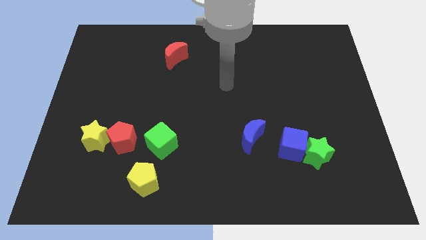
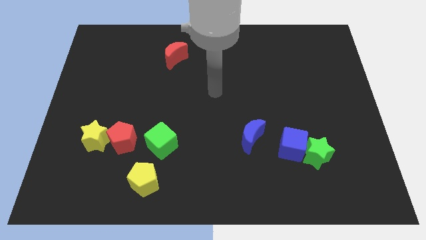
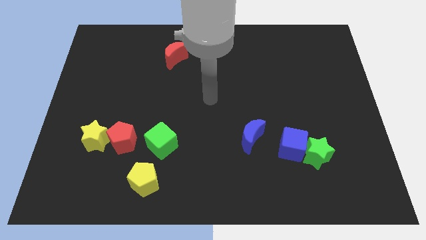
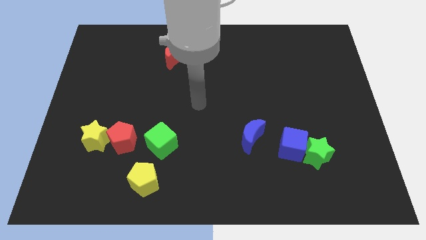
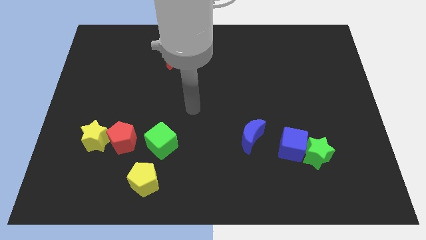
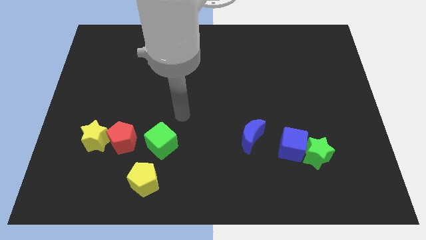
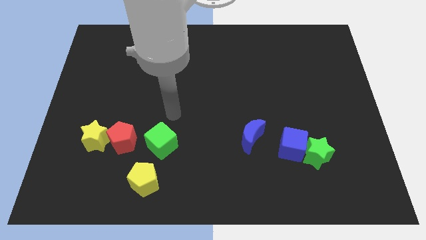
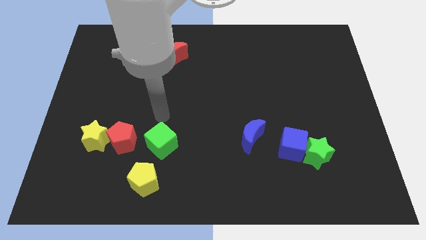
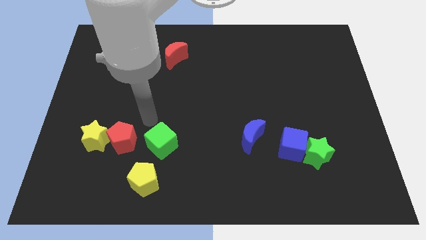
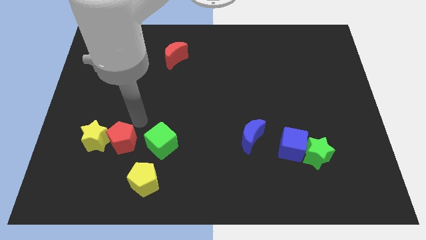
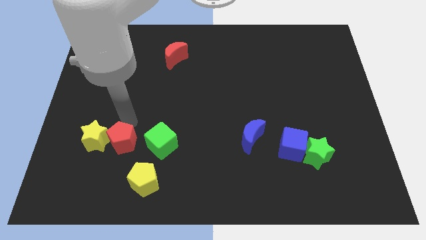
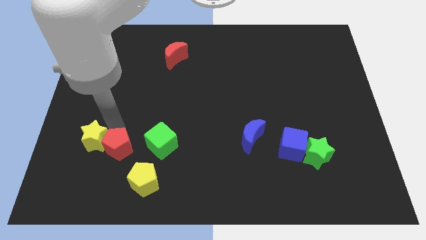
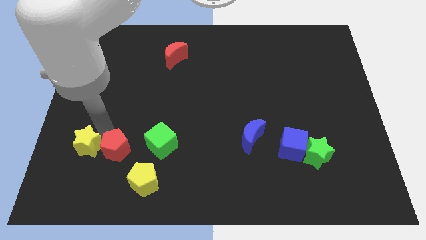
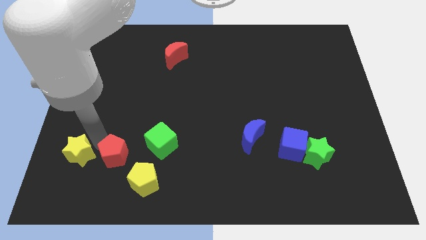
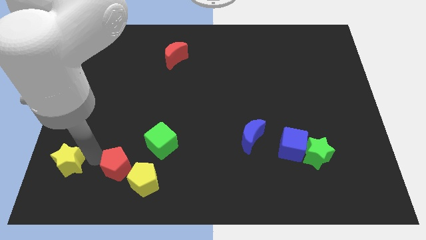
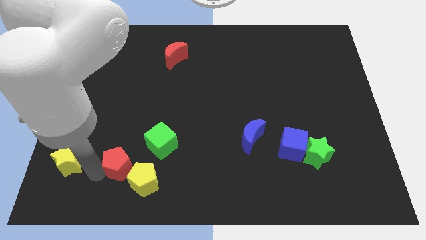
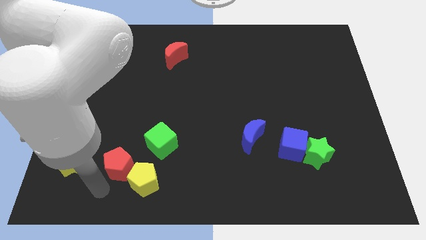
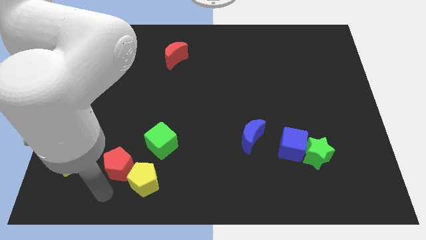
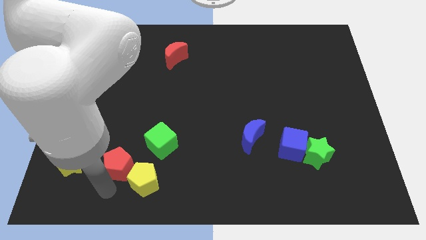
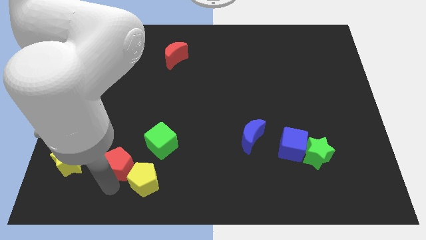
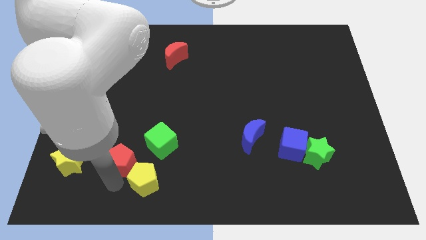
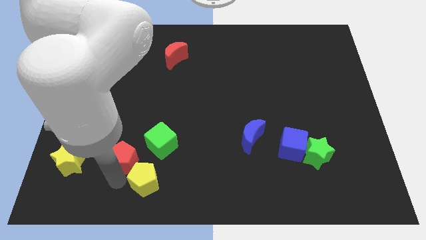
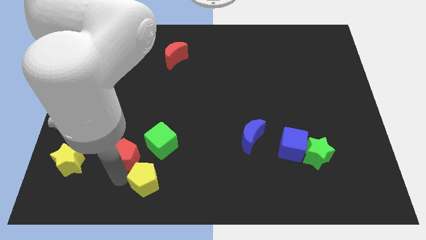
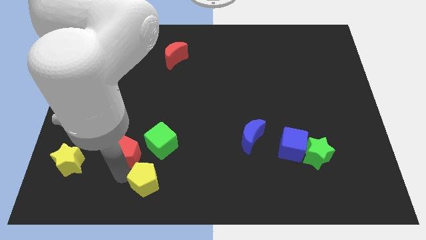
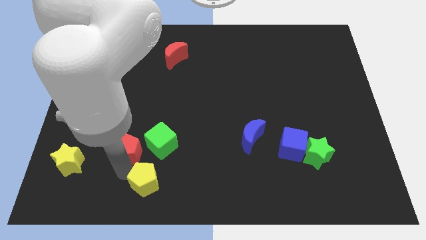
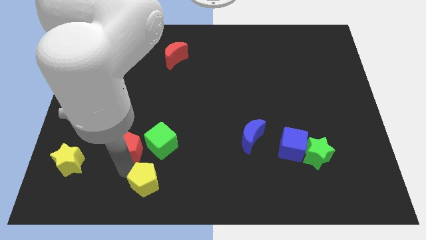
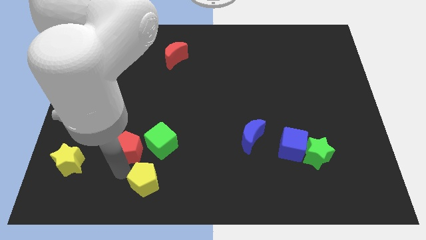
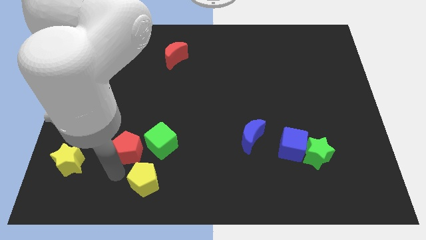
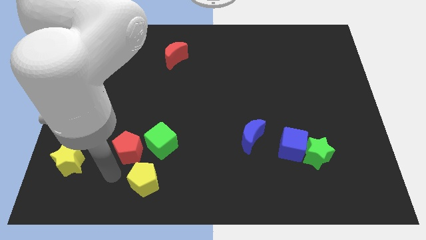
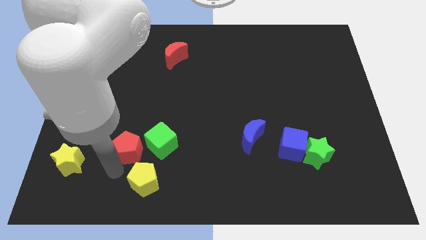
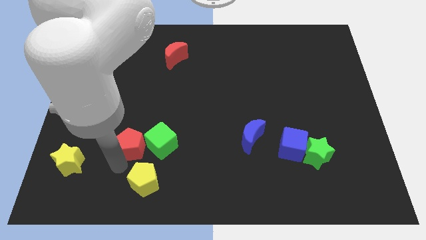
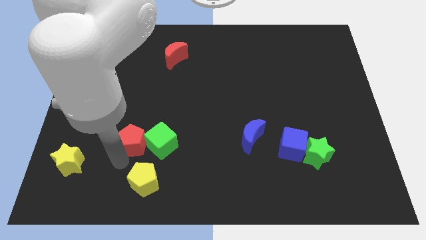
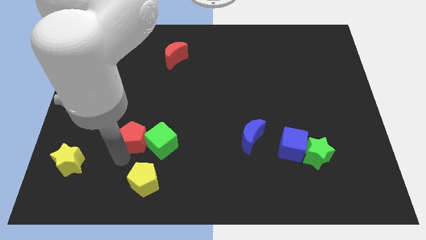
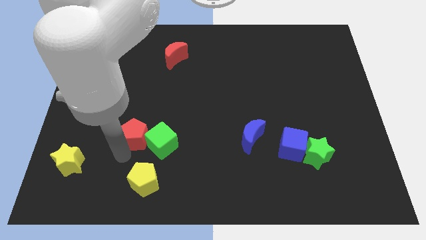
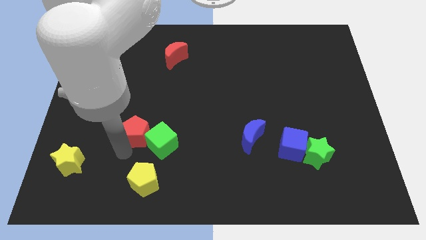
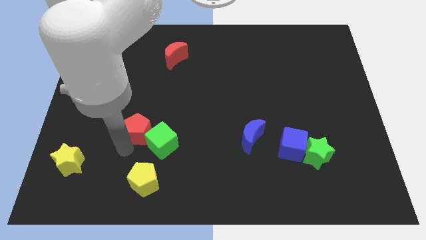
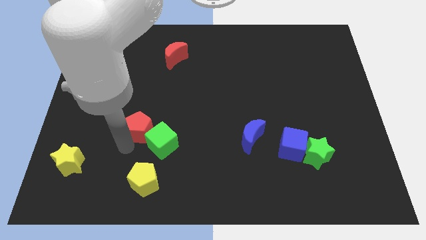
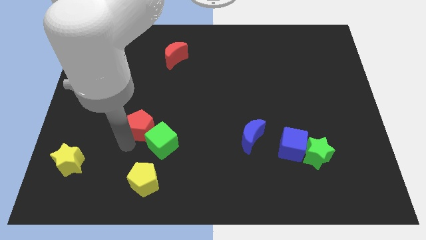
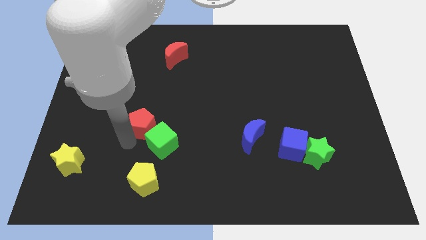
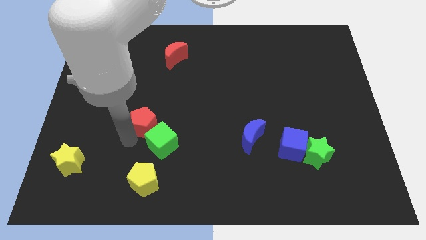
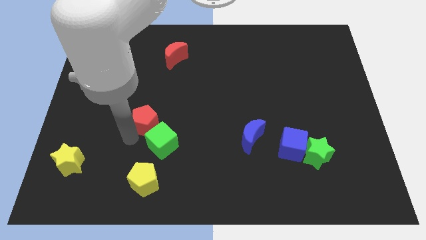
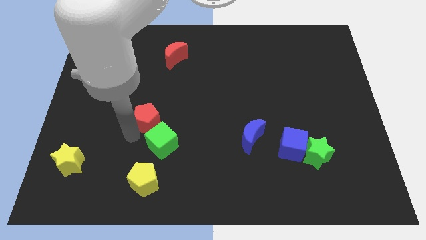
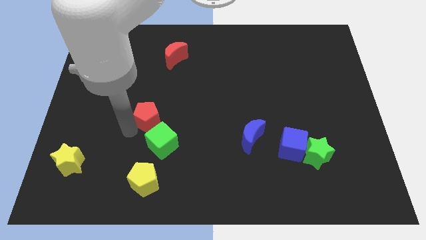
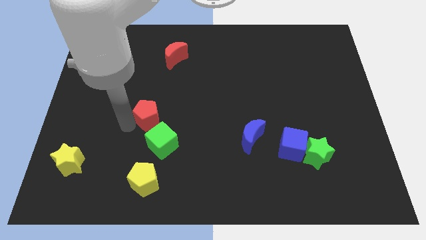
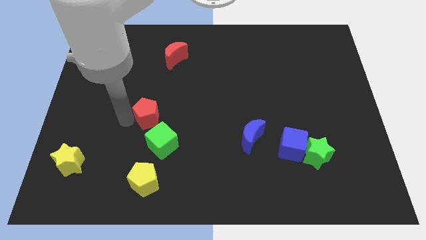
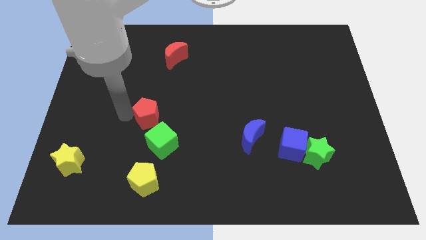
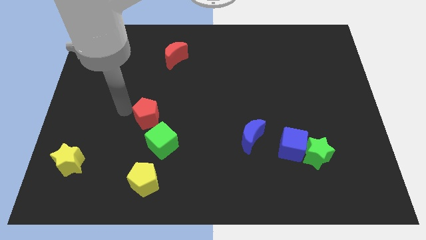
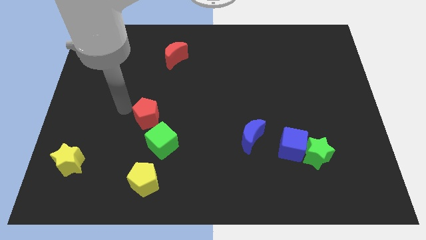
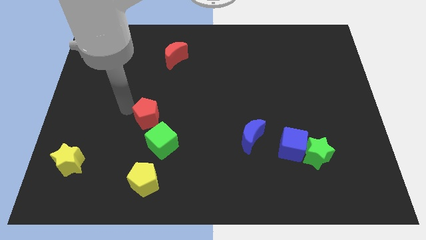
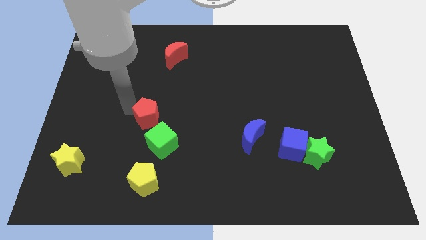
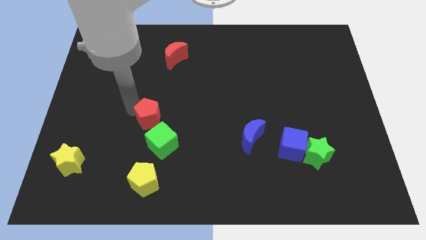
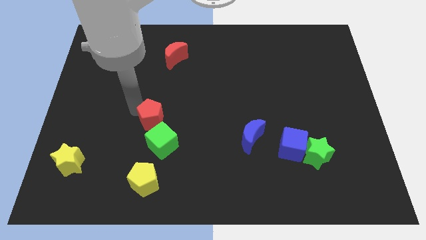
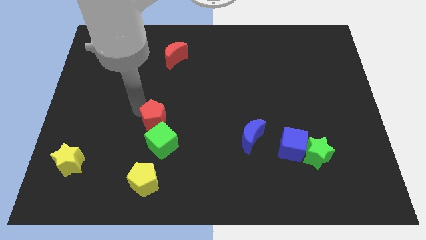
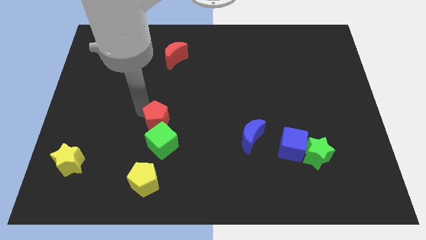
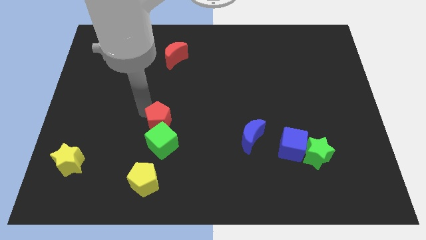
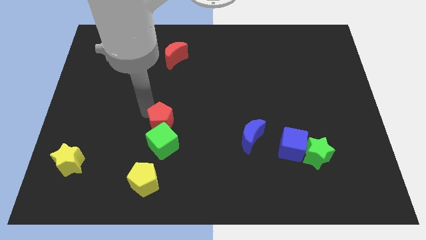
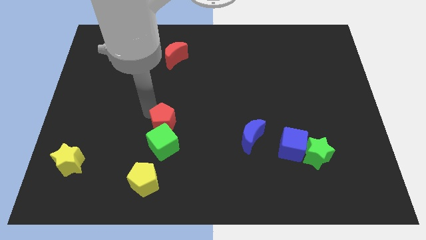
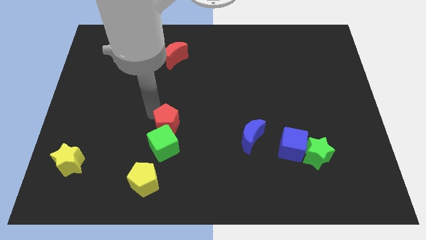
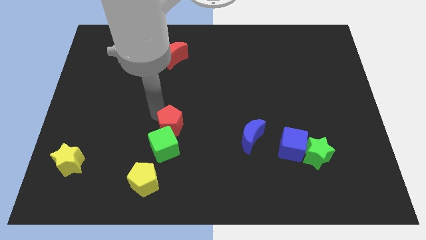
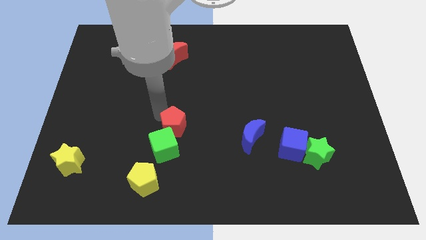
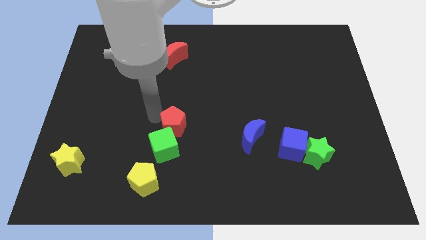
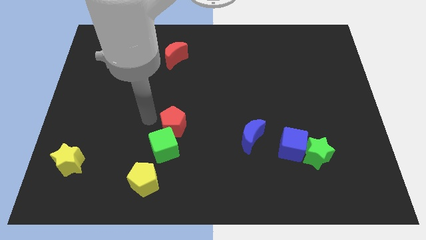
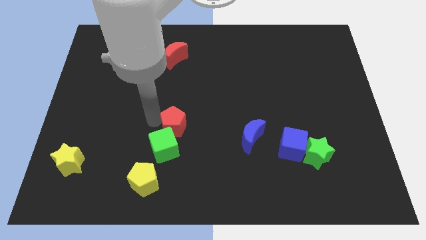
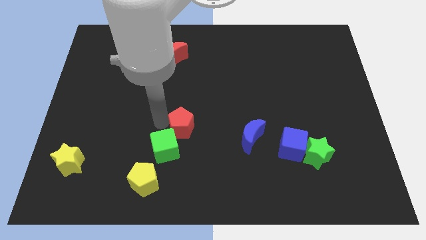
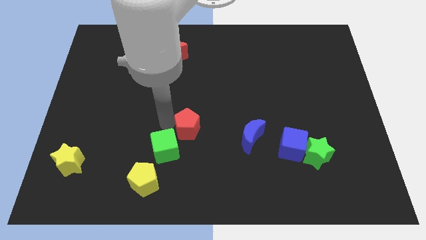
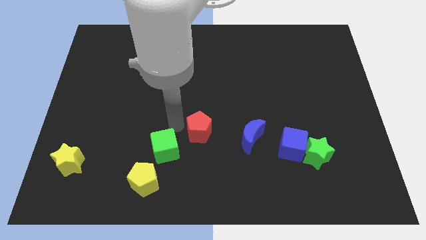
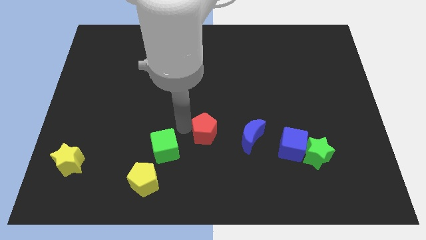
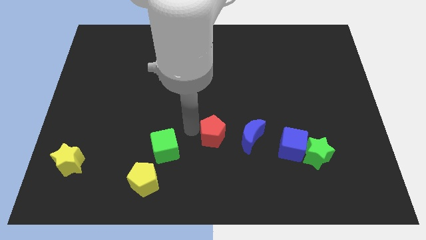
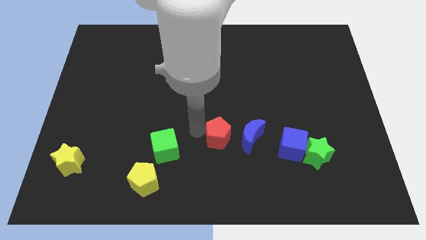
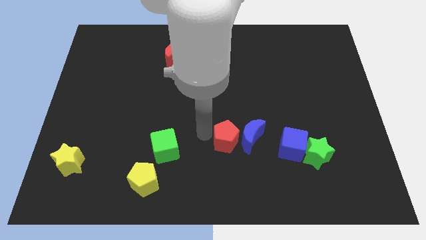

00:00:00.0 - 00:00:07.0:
move the red pentagon towards the blue moon
